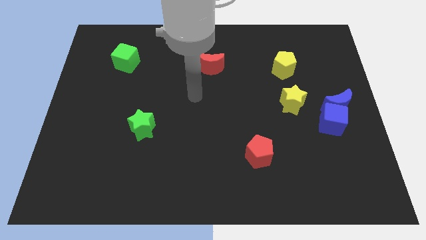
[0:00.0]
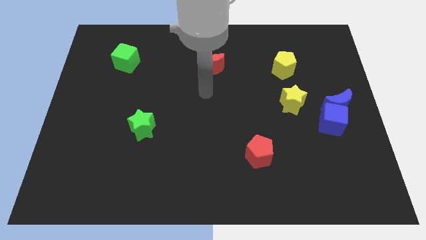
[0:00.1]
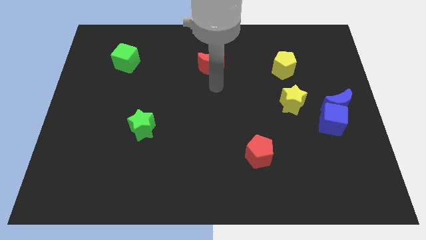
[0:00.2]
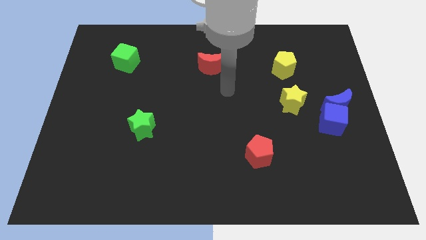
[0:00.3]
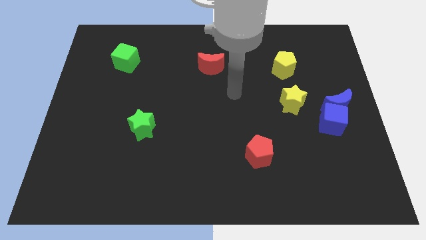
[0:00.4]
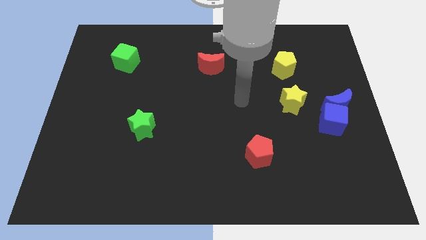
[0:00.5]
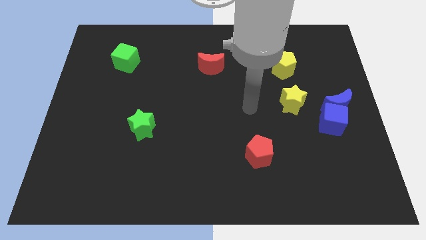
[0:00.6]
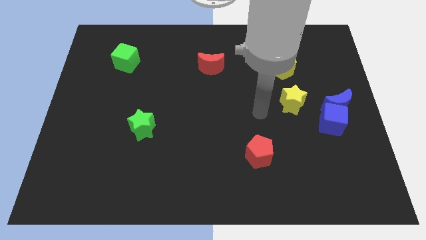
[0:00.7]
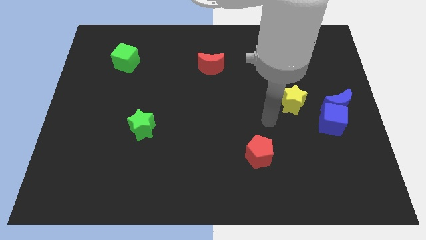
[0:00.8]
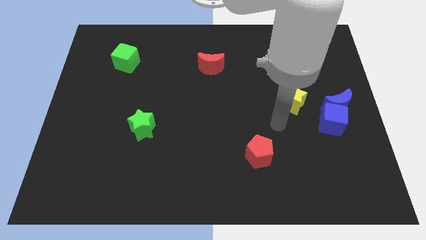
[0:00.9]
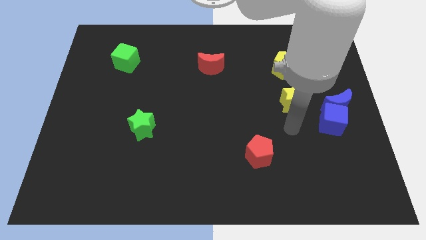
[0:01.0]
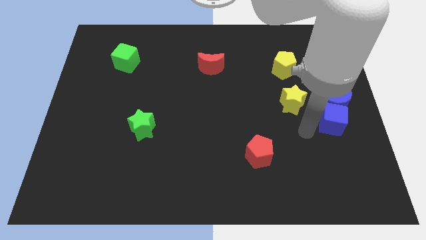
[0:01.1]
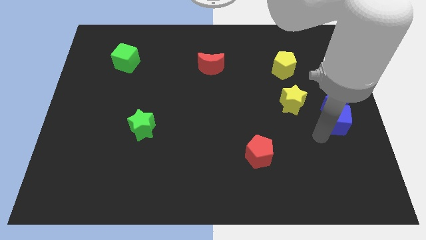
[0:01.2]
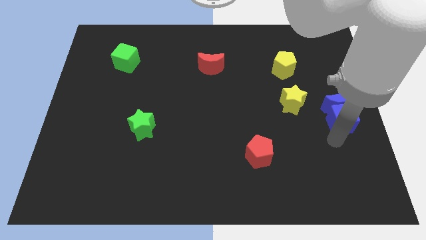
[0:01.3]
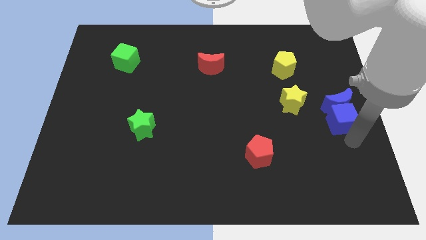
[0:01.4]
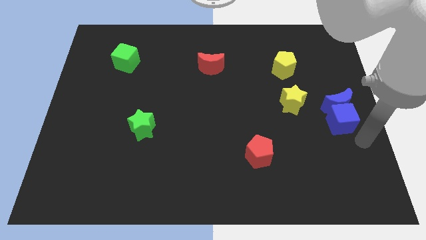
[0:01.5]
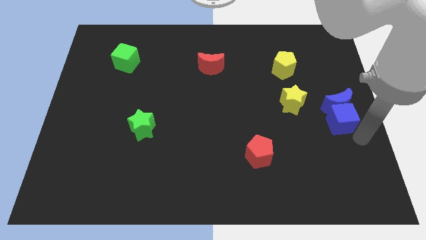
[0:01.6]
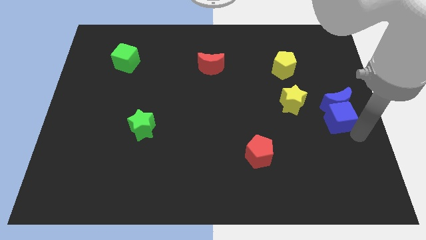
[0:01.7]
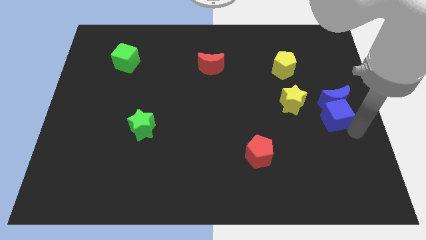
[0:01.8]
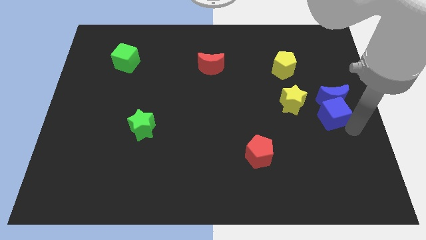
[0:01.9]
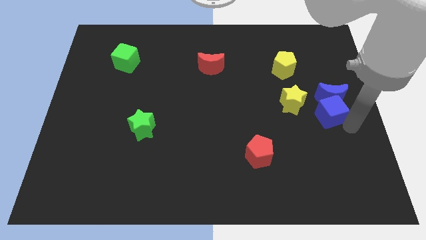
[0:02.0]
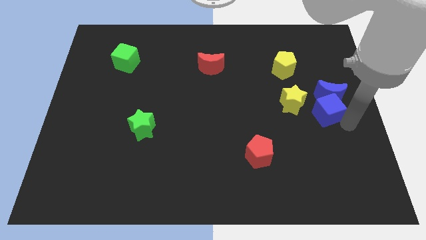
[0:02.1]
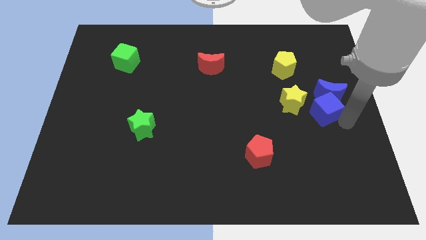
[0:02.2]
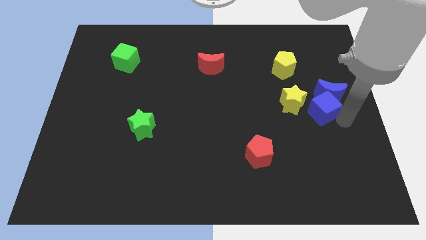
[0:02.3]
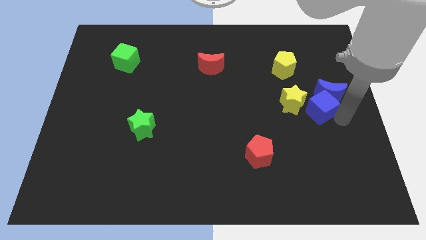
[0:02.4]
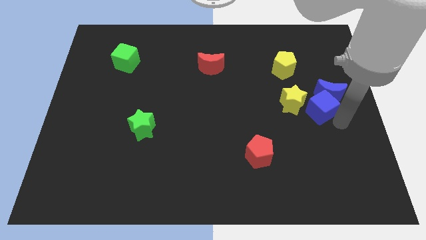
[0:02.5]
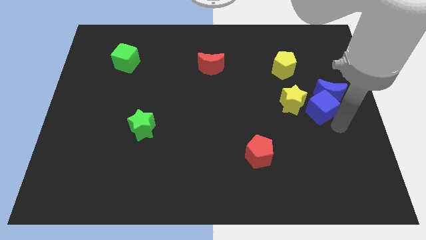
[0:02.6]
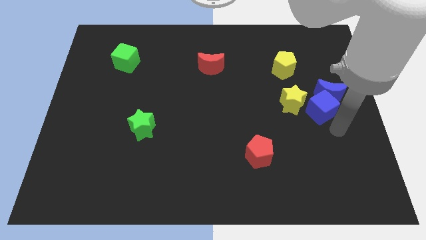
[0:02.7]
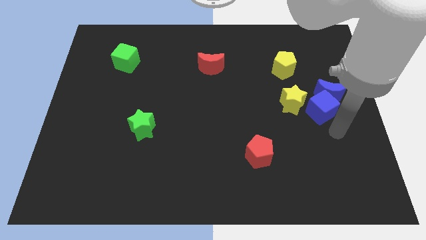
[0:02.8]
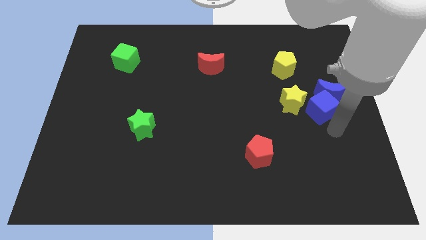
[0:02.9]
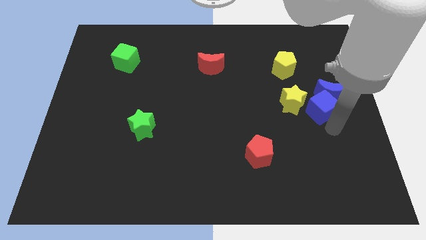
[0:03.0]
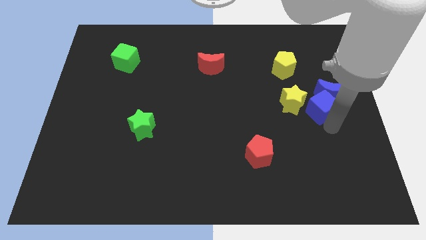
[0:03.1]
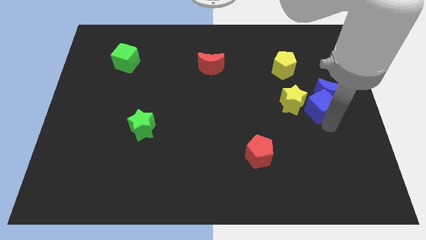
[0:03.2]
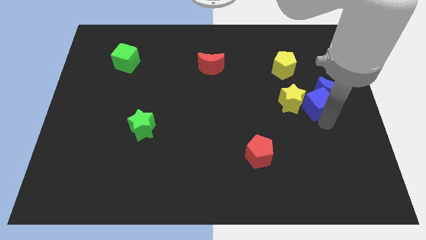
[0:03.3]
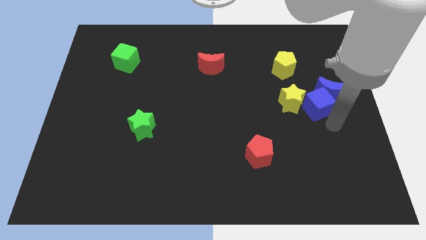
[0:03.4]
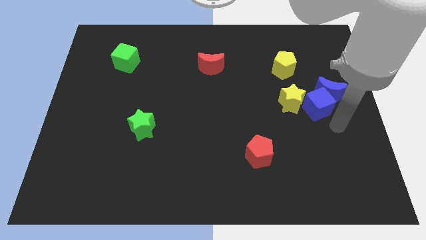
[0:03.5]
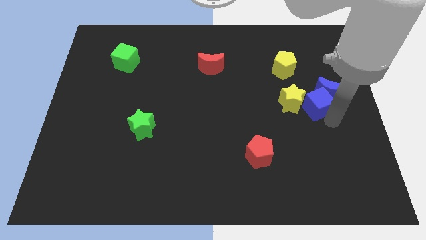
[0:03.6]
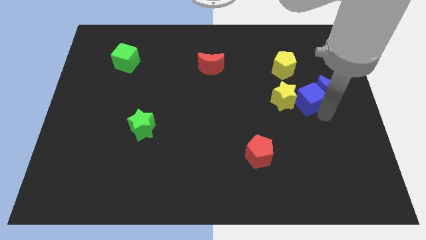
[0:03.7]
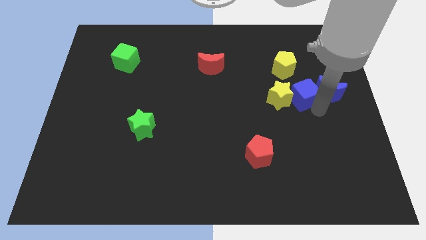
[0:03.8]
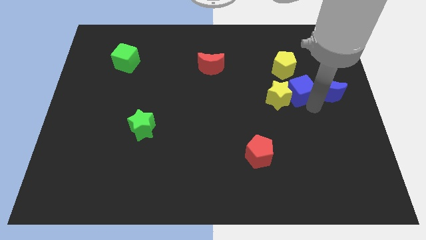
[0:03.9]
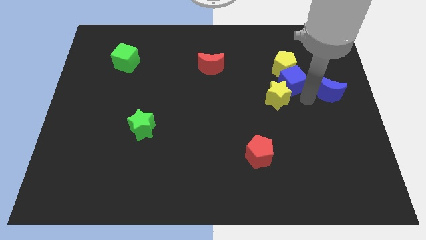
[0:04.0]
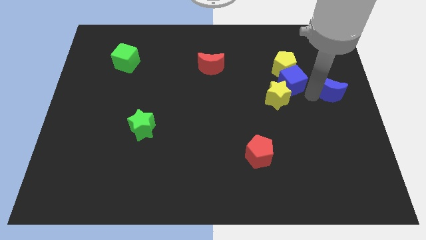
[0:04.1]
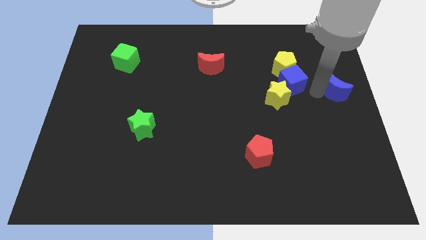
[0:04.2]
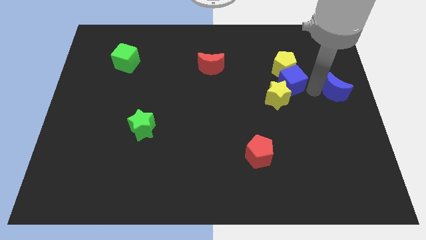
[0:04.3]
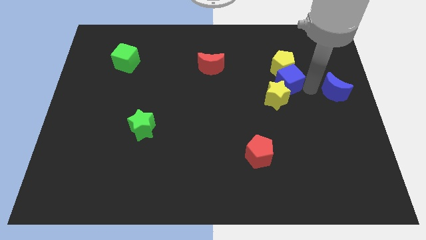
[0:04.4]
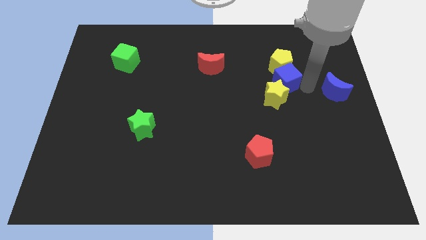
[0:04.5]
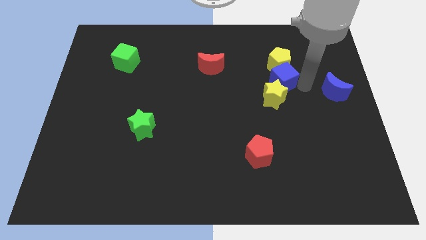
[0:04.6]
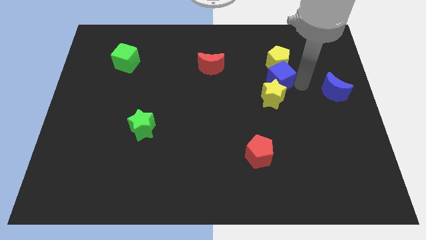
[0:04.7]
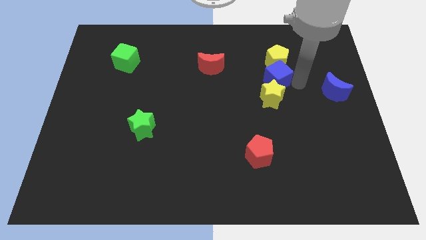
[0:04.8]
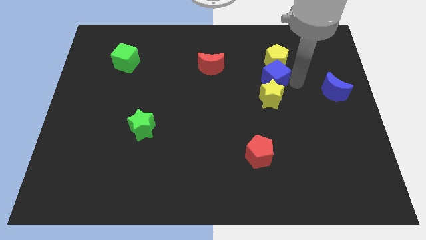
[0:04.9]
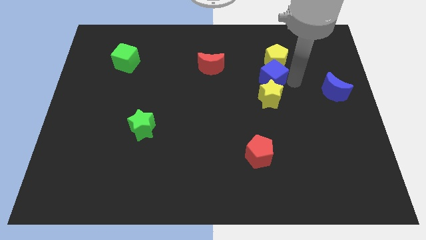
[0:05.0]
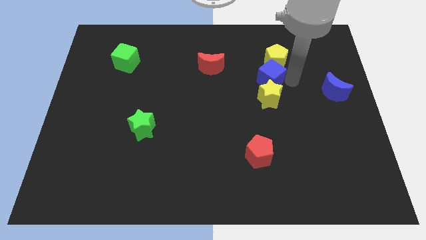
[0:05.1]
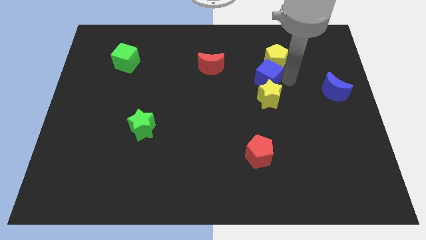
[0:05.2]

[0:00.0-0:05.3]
push the blue cube right of the red moon

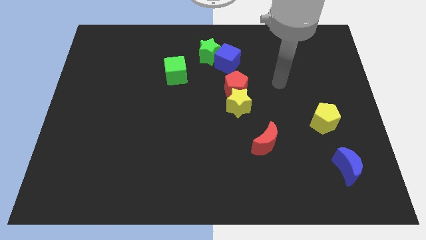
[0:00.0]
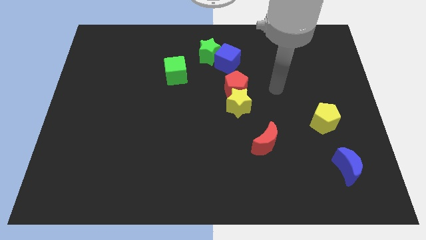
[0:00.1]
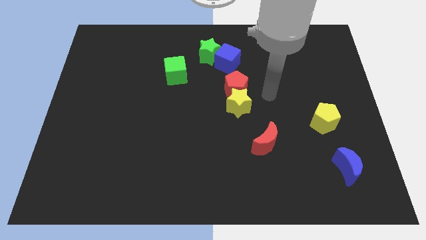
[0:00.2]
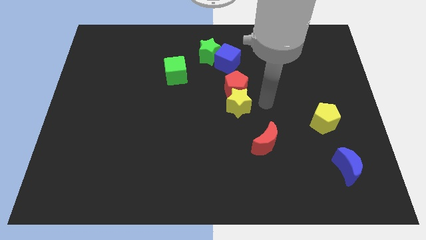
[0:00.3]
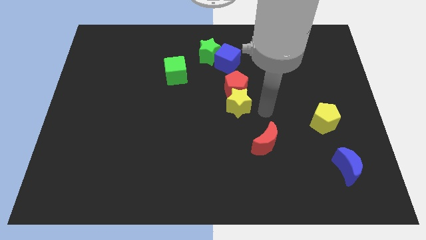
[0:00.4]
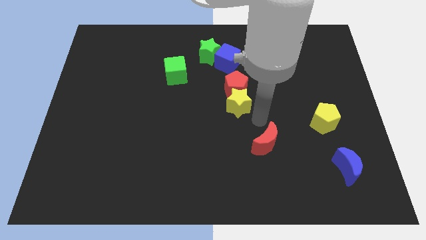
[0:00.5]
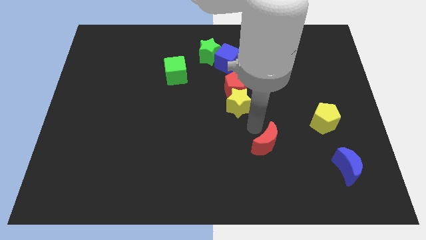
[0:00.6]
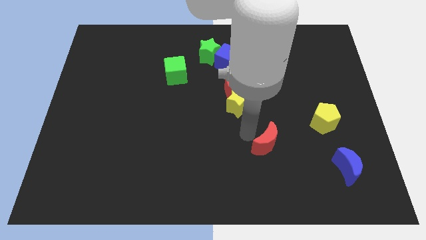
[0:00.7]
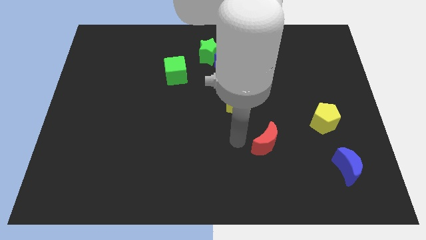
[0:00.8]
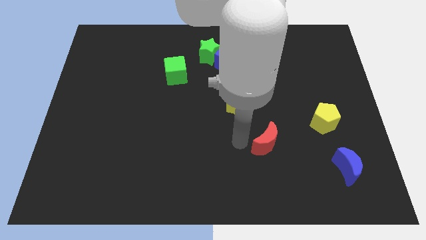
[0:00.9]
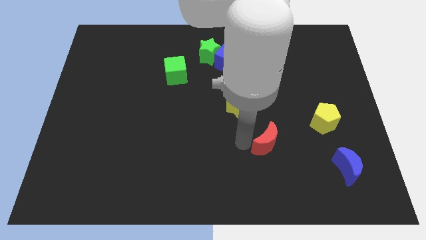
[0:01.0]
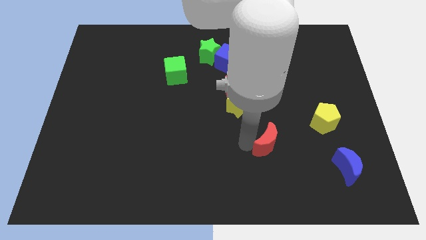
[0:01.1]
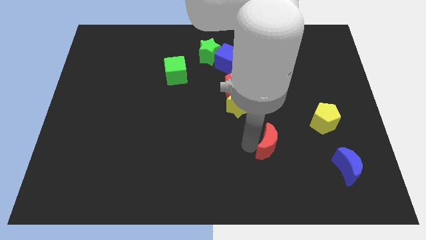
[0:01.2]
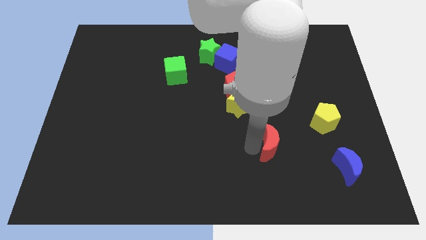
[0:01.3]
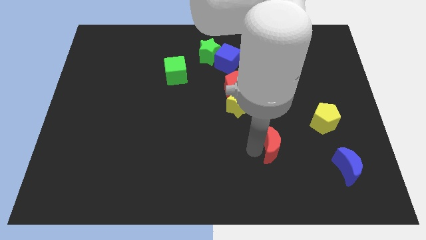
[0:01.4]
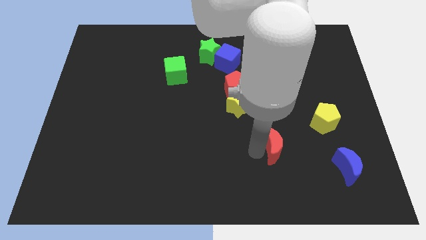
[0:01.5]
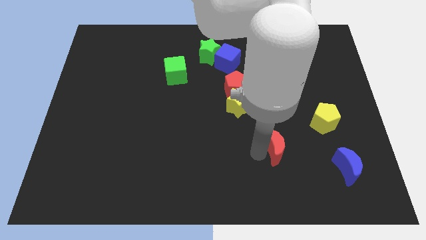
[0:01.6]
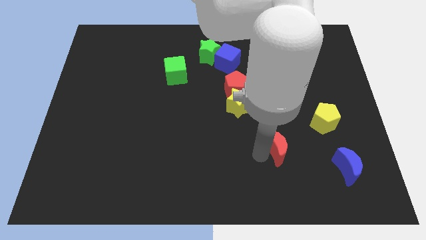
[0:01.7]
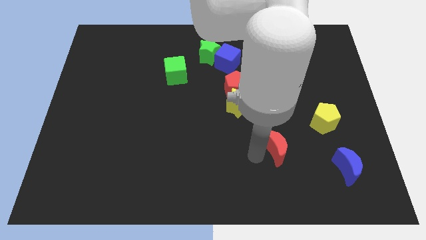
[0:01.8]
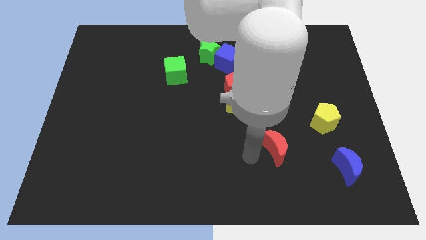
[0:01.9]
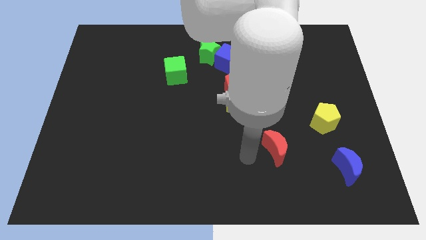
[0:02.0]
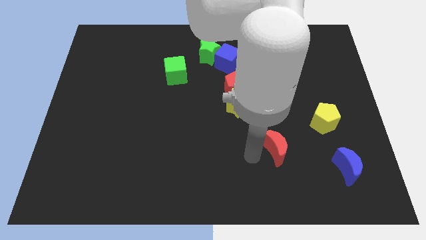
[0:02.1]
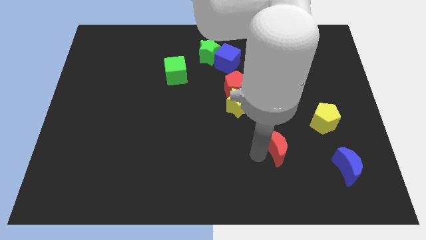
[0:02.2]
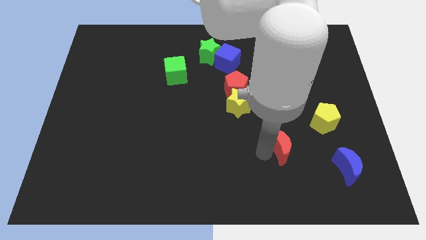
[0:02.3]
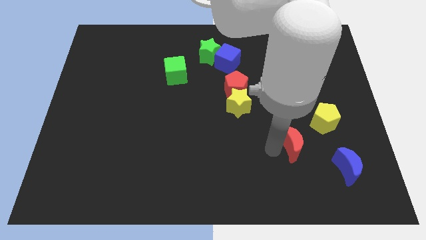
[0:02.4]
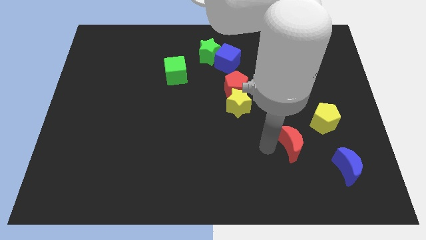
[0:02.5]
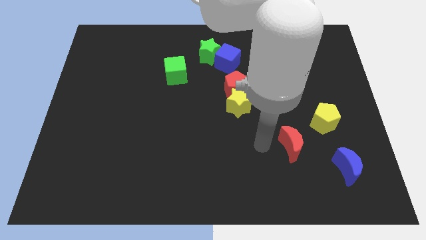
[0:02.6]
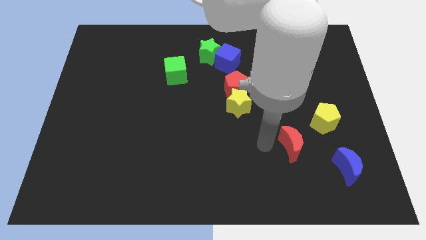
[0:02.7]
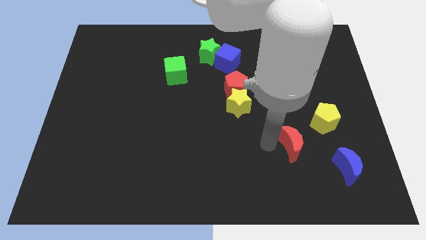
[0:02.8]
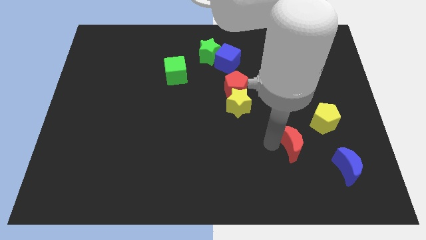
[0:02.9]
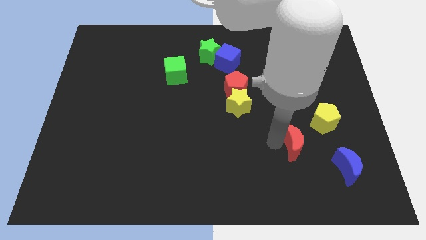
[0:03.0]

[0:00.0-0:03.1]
put the red moon to the top left of the blue moon
